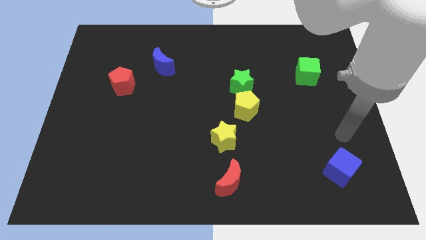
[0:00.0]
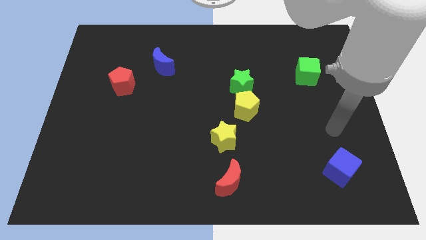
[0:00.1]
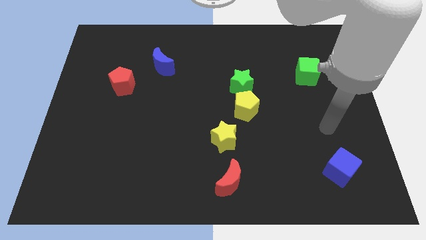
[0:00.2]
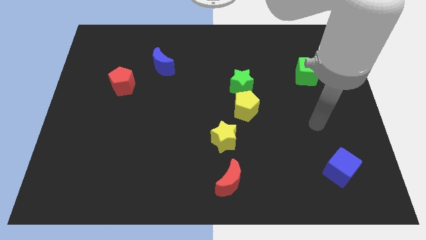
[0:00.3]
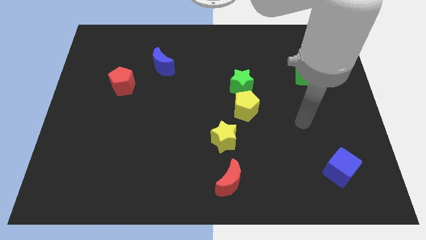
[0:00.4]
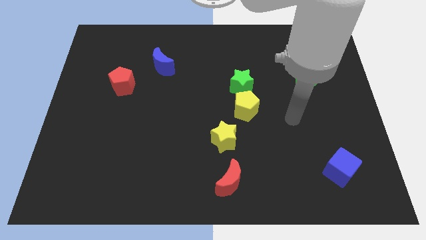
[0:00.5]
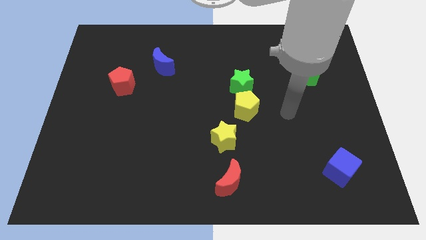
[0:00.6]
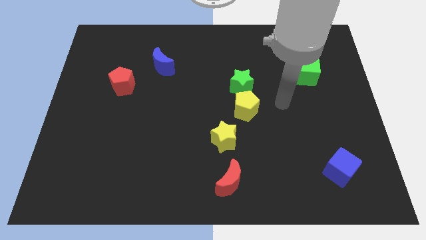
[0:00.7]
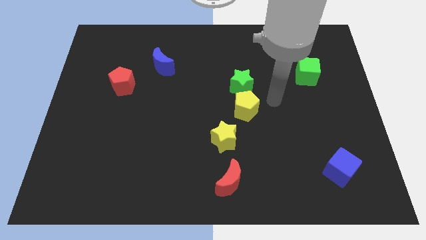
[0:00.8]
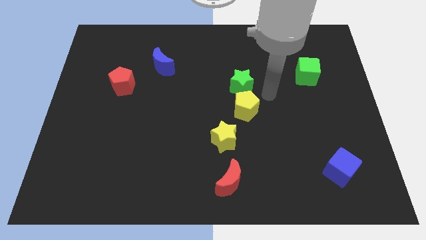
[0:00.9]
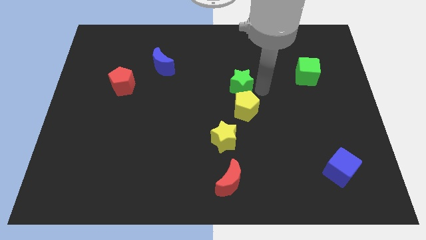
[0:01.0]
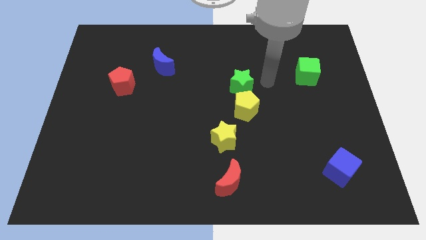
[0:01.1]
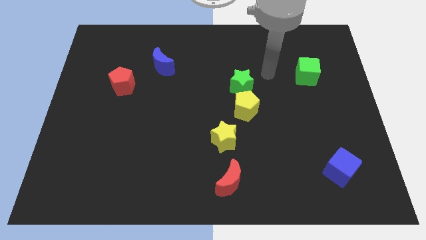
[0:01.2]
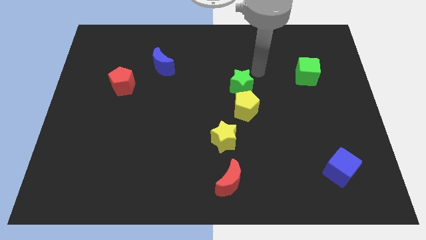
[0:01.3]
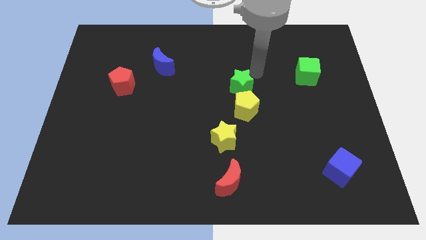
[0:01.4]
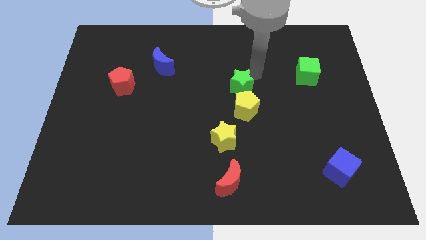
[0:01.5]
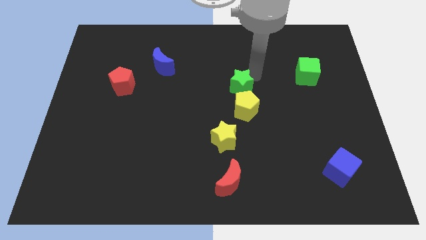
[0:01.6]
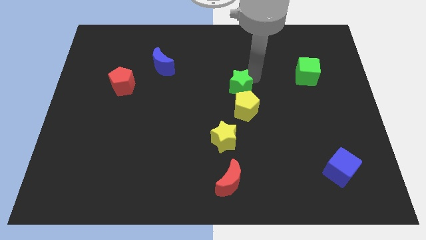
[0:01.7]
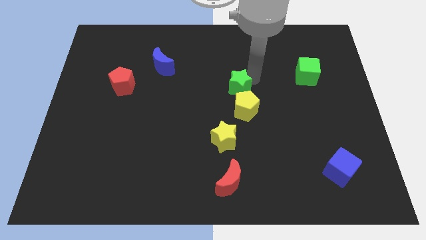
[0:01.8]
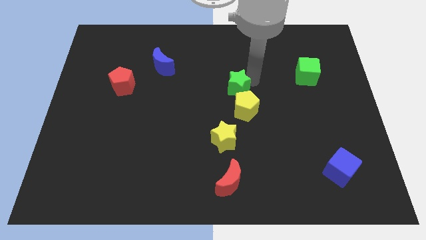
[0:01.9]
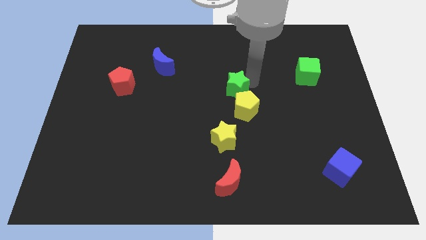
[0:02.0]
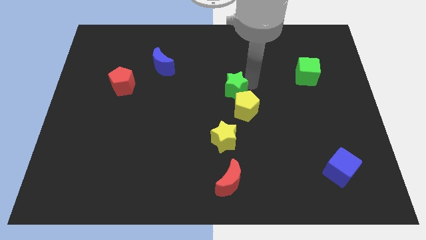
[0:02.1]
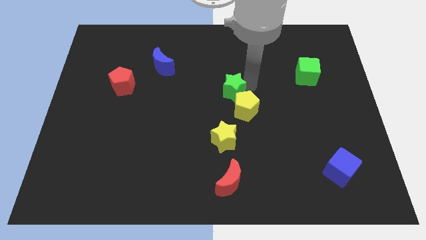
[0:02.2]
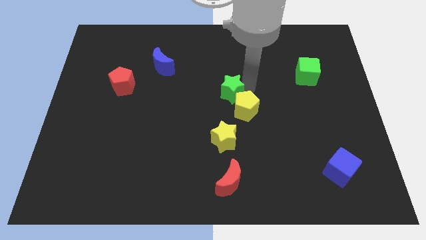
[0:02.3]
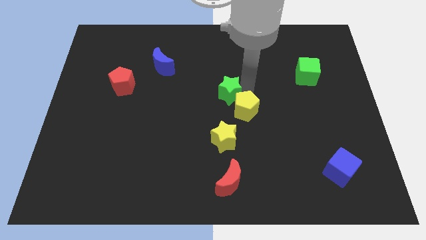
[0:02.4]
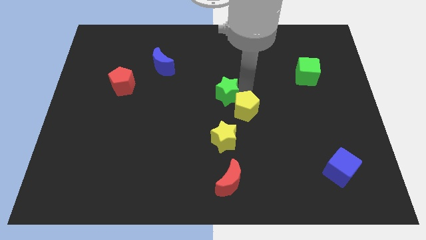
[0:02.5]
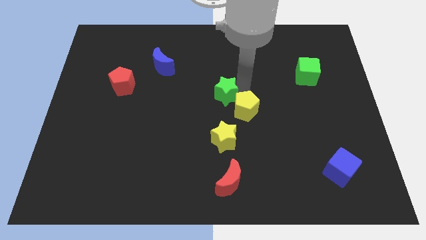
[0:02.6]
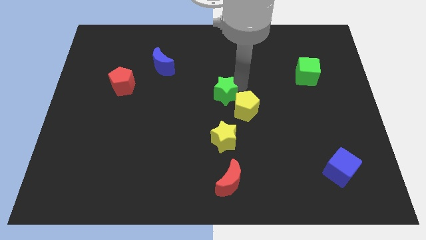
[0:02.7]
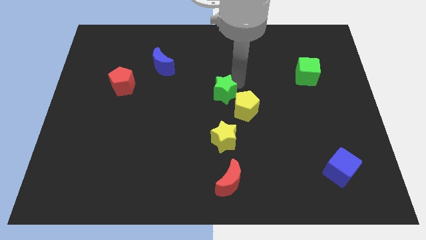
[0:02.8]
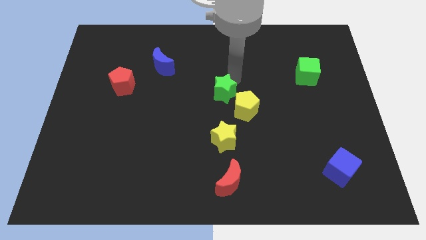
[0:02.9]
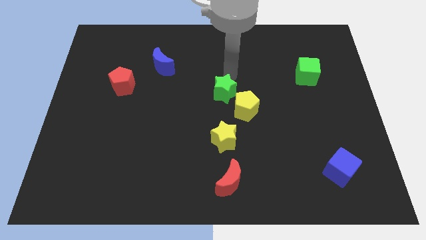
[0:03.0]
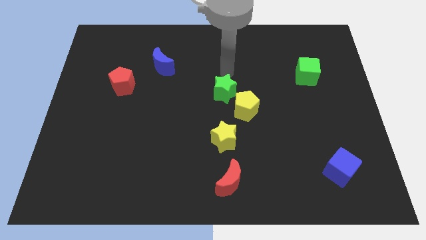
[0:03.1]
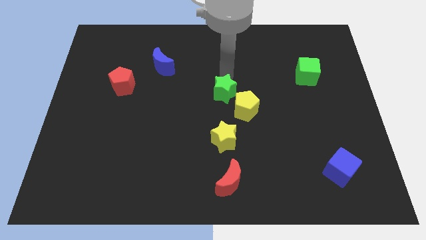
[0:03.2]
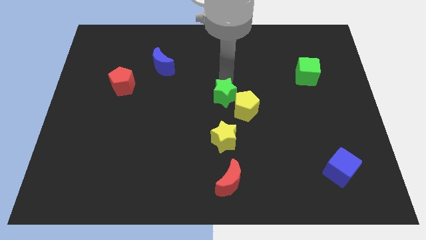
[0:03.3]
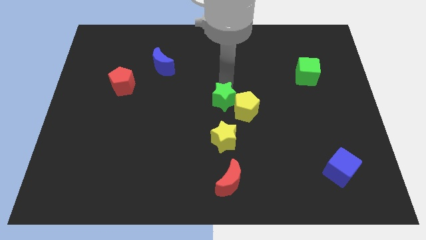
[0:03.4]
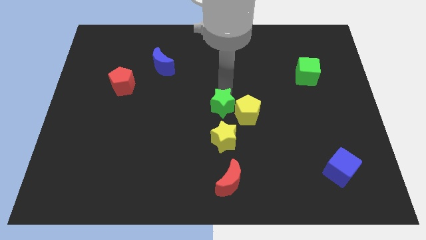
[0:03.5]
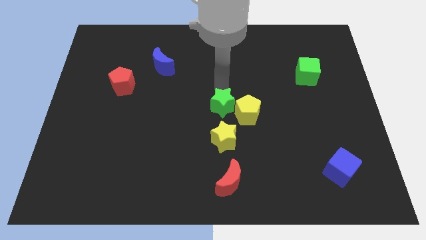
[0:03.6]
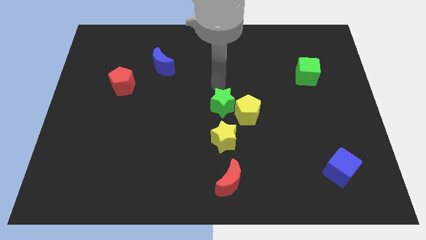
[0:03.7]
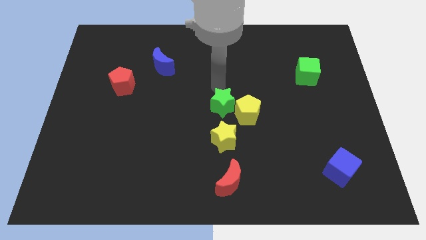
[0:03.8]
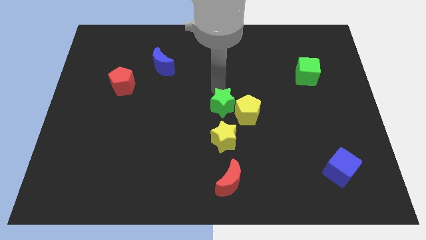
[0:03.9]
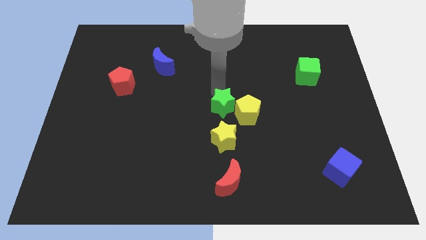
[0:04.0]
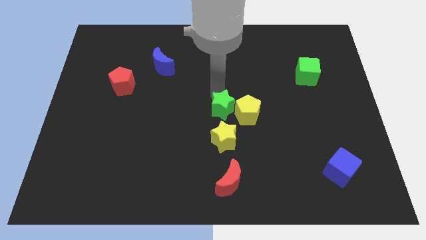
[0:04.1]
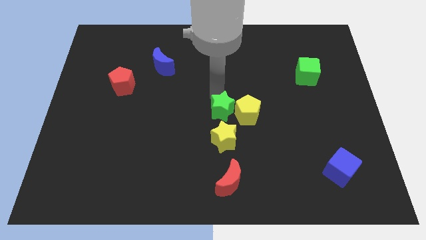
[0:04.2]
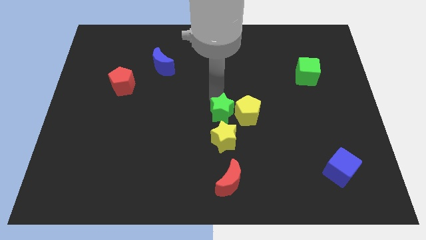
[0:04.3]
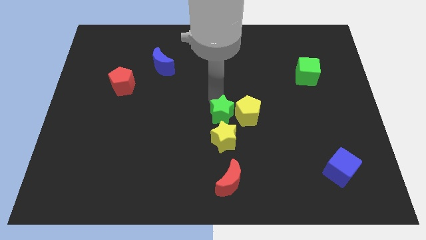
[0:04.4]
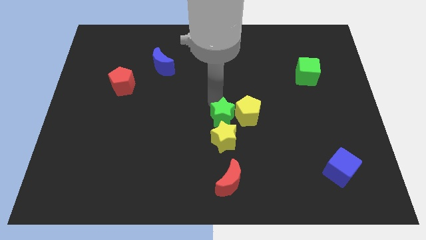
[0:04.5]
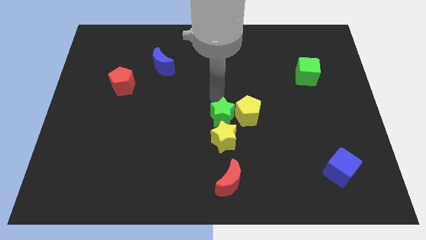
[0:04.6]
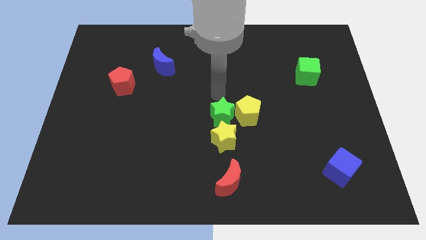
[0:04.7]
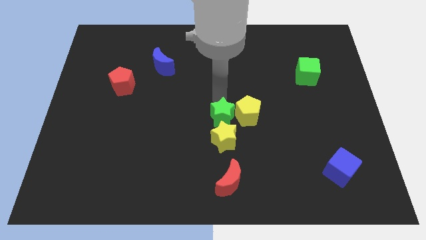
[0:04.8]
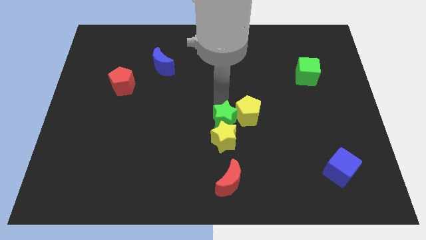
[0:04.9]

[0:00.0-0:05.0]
push the green star to the top side of the red moon

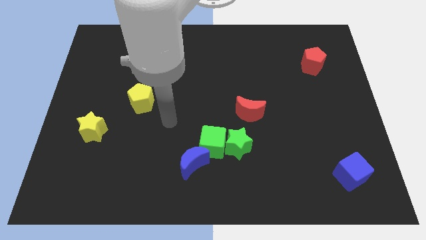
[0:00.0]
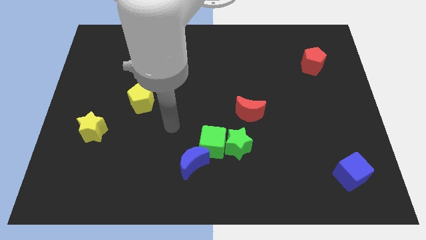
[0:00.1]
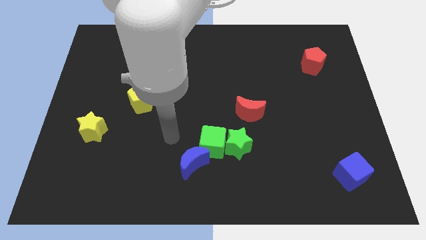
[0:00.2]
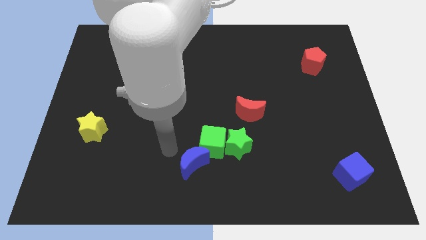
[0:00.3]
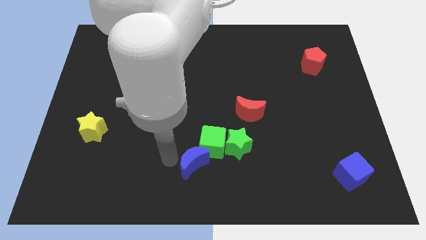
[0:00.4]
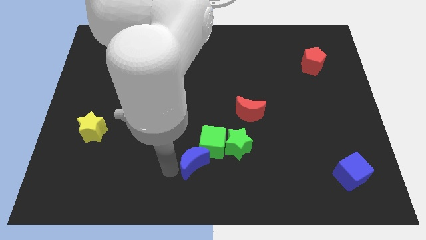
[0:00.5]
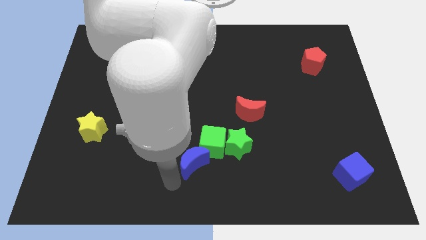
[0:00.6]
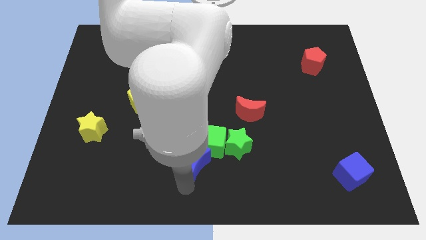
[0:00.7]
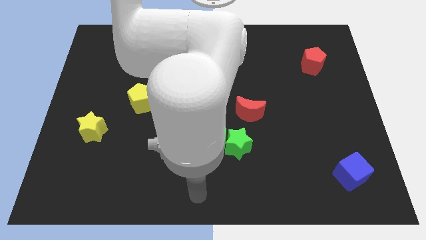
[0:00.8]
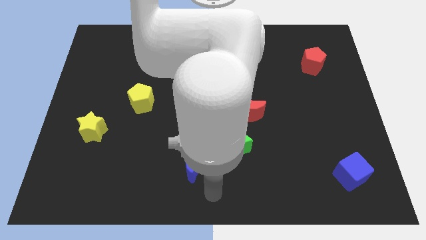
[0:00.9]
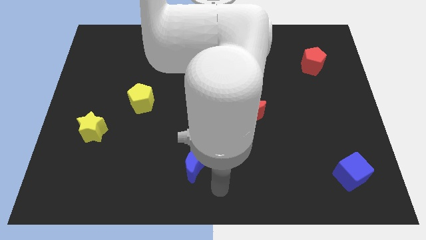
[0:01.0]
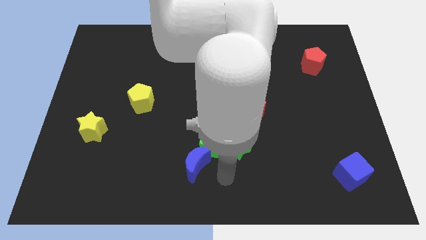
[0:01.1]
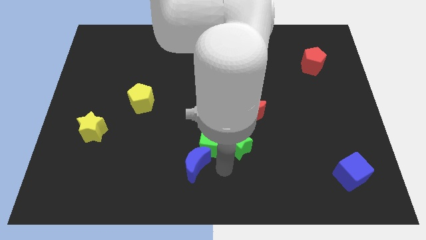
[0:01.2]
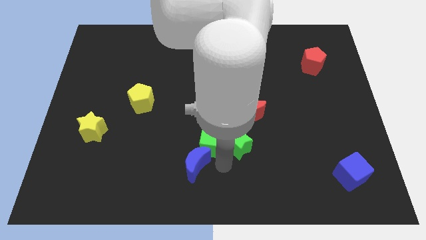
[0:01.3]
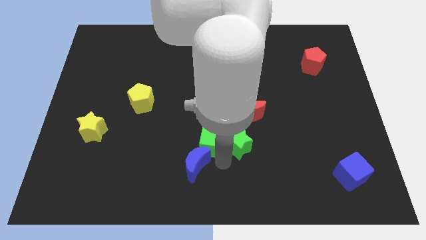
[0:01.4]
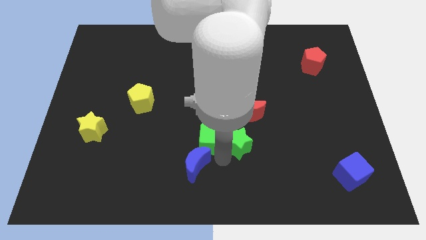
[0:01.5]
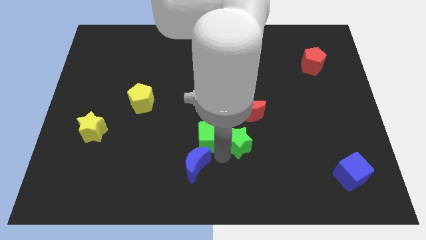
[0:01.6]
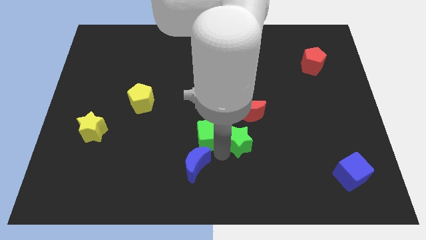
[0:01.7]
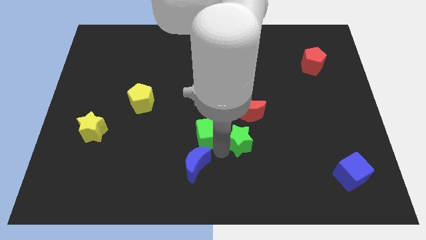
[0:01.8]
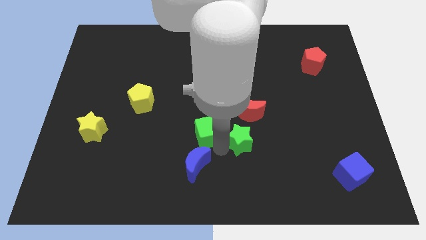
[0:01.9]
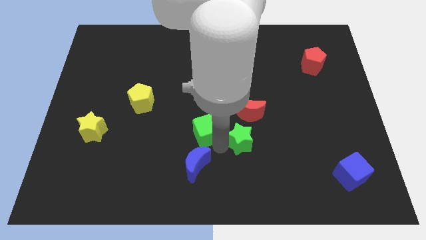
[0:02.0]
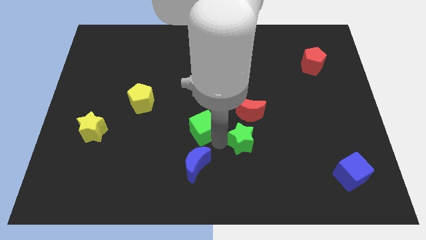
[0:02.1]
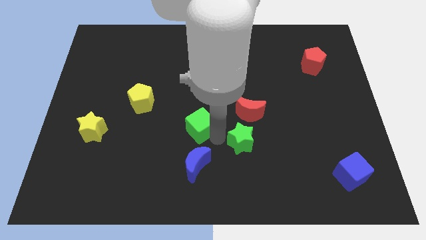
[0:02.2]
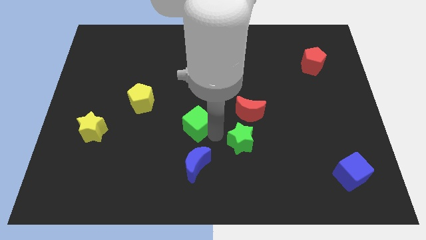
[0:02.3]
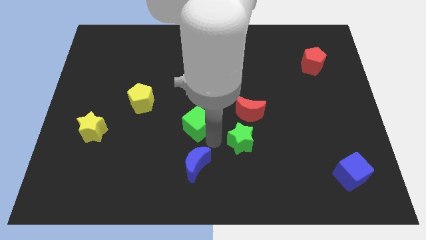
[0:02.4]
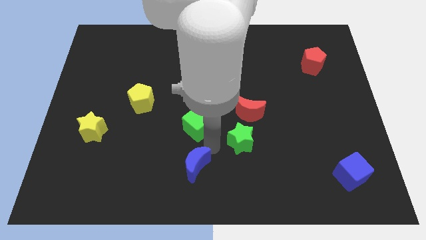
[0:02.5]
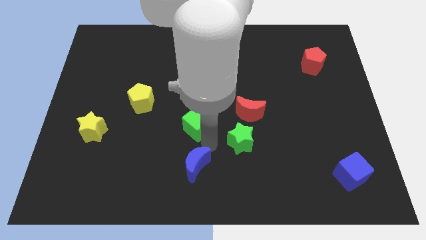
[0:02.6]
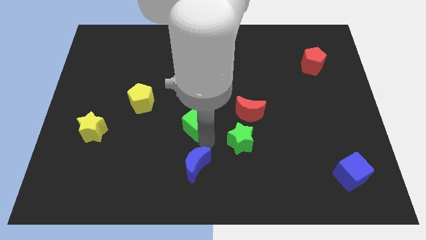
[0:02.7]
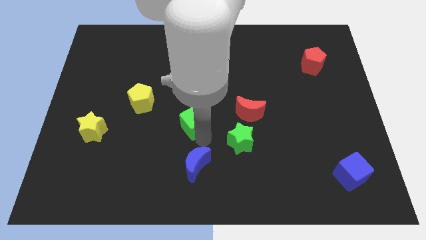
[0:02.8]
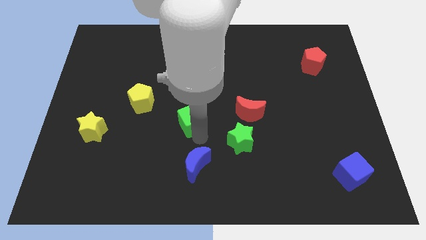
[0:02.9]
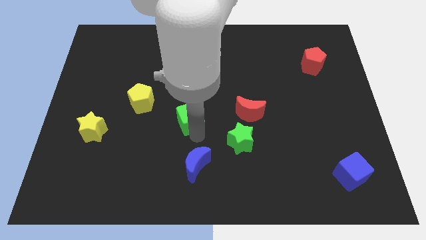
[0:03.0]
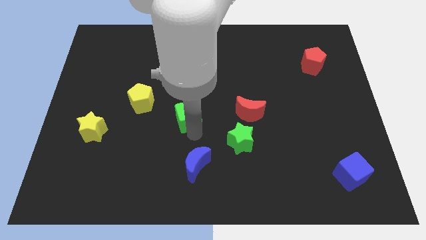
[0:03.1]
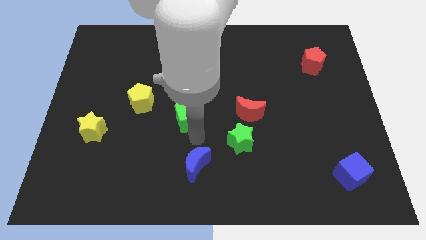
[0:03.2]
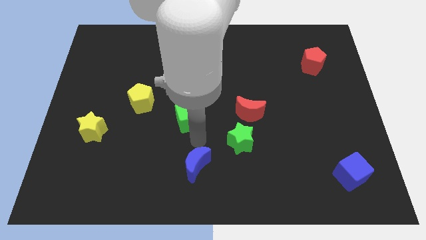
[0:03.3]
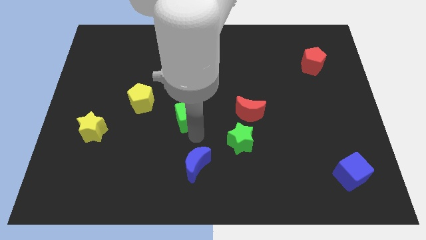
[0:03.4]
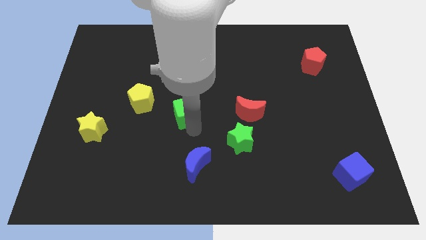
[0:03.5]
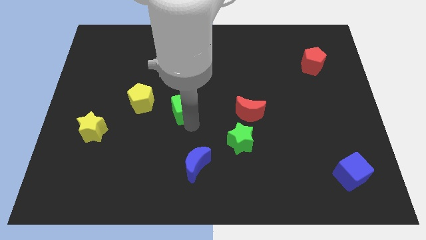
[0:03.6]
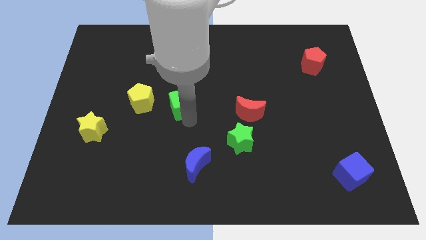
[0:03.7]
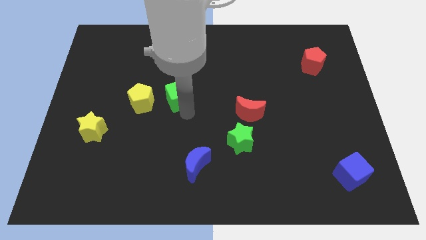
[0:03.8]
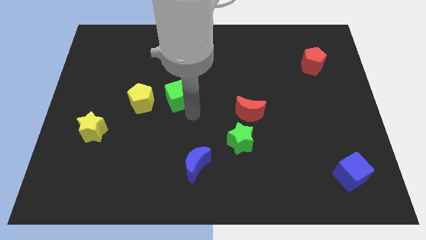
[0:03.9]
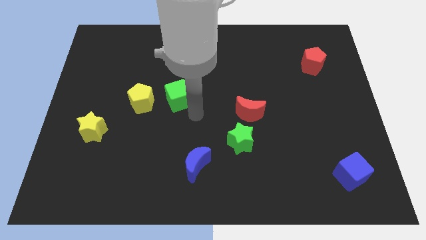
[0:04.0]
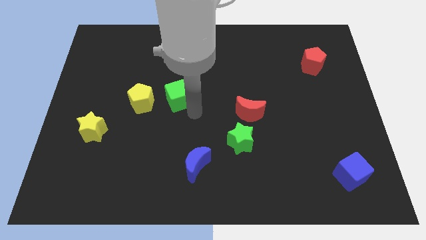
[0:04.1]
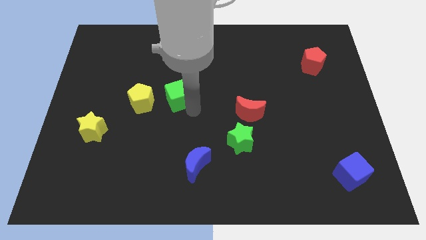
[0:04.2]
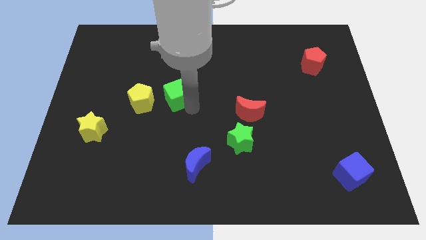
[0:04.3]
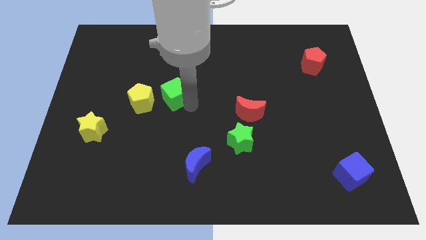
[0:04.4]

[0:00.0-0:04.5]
put the green cube to the top right of the yellow pentagon
